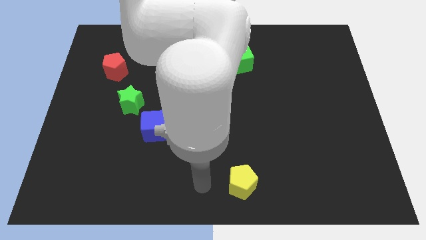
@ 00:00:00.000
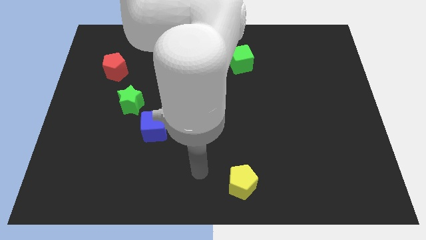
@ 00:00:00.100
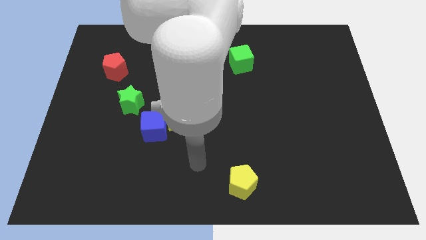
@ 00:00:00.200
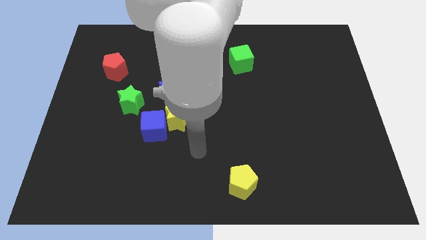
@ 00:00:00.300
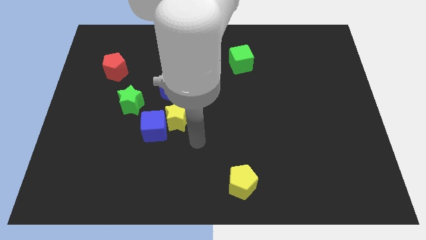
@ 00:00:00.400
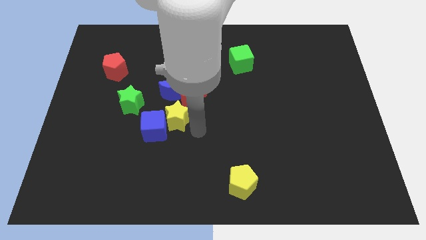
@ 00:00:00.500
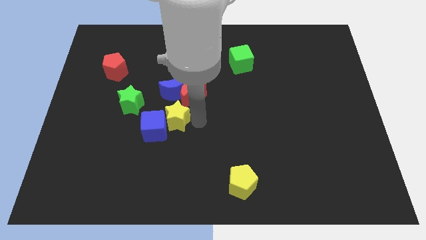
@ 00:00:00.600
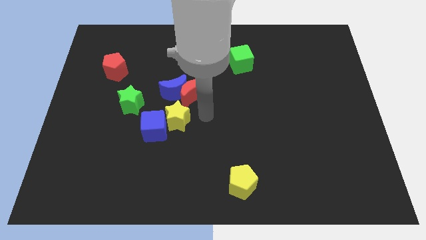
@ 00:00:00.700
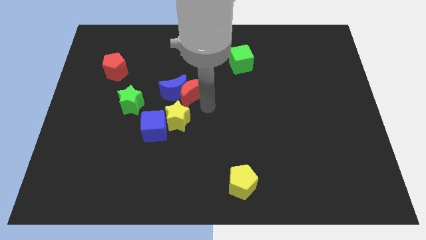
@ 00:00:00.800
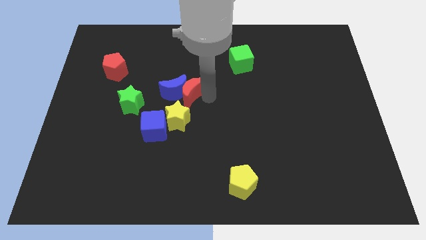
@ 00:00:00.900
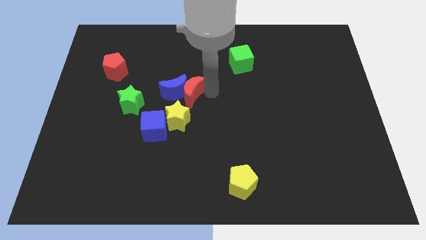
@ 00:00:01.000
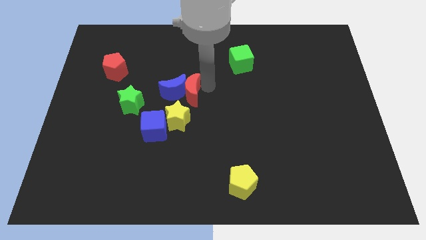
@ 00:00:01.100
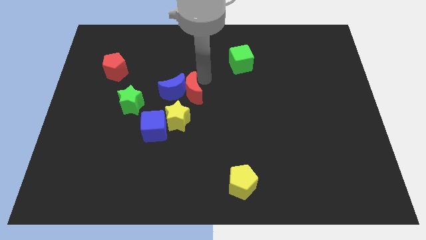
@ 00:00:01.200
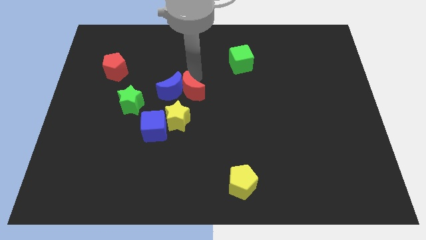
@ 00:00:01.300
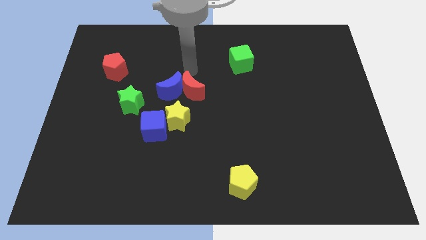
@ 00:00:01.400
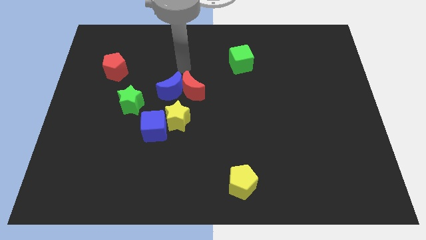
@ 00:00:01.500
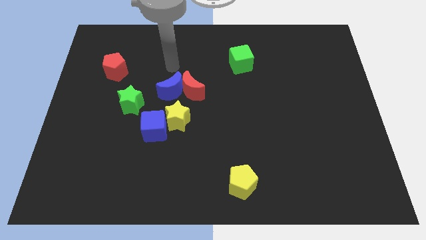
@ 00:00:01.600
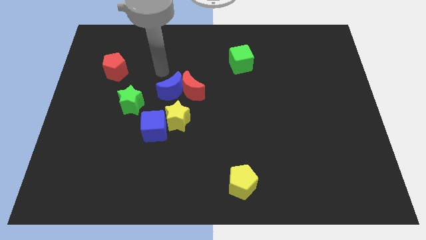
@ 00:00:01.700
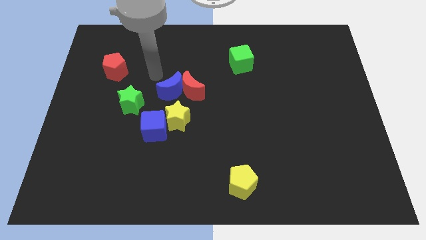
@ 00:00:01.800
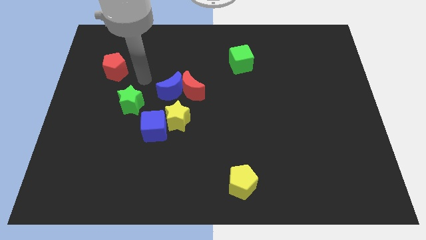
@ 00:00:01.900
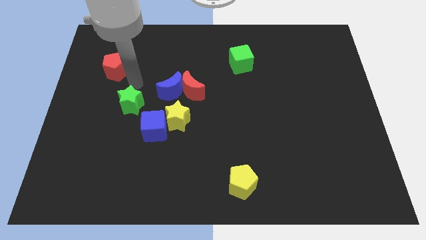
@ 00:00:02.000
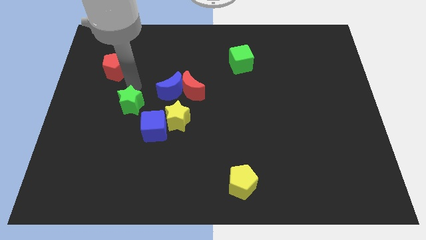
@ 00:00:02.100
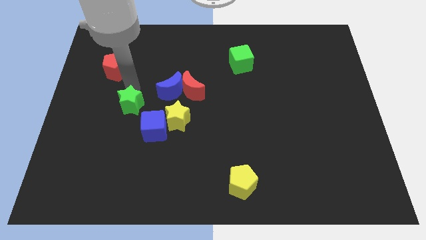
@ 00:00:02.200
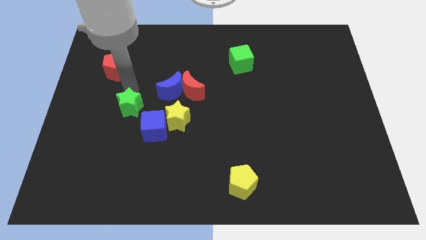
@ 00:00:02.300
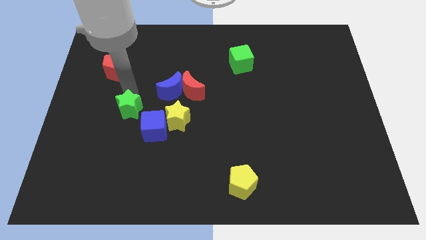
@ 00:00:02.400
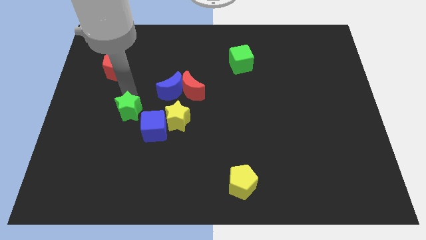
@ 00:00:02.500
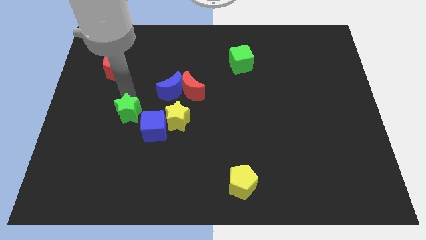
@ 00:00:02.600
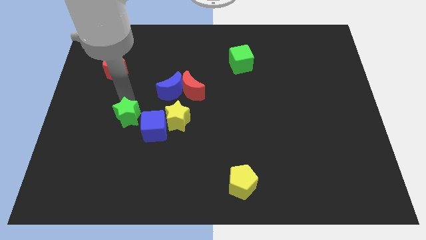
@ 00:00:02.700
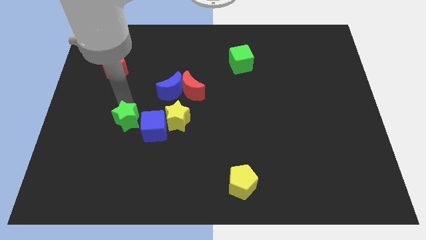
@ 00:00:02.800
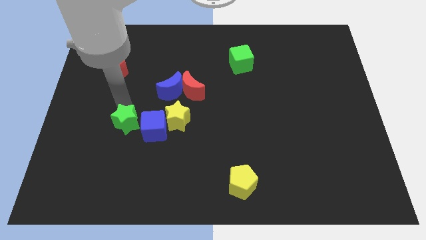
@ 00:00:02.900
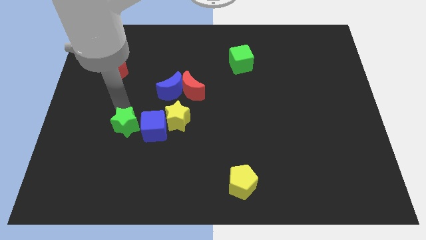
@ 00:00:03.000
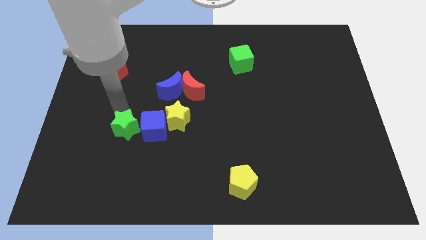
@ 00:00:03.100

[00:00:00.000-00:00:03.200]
slightly move the green star downwards

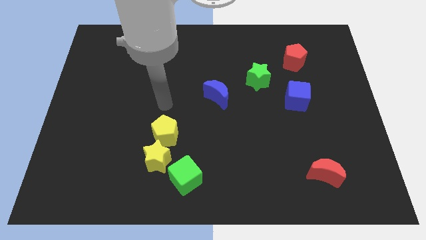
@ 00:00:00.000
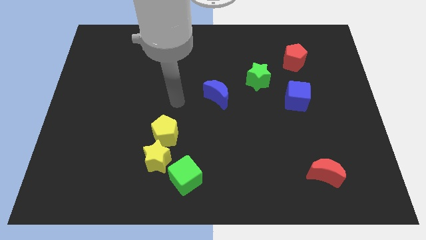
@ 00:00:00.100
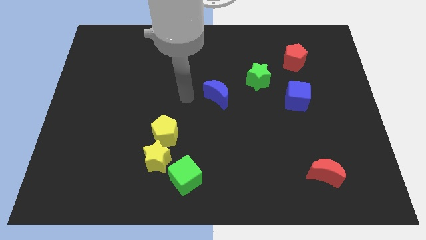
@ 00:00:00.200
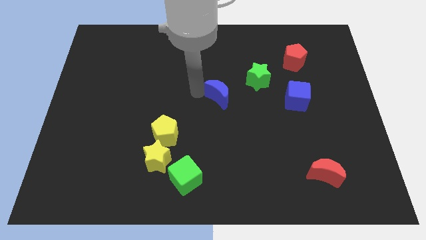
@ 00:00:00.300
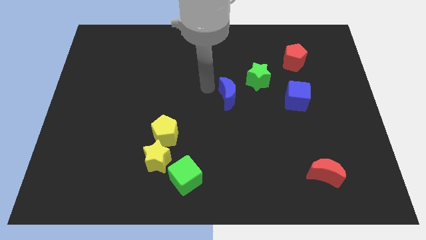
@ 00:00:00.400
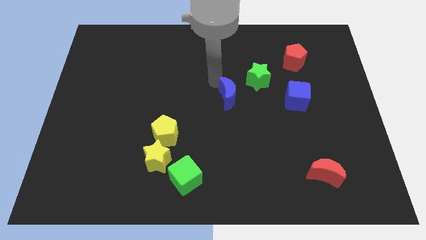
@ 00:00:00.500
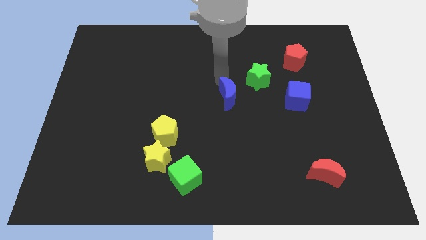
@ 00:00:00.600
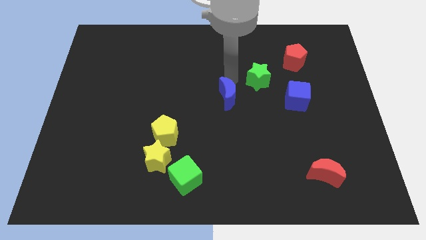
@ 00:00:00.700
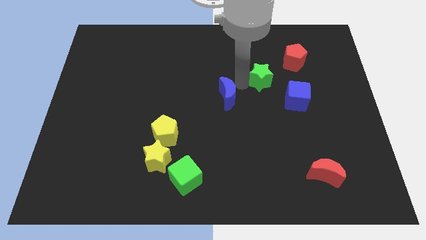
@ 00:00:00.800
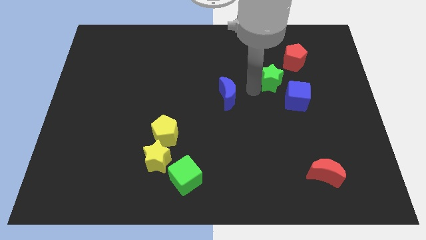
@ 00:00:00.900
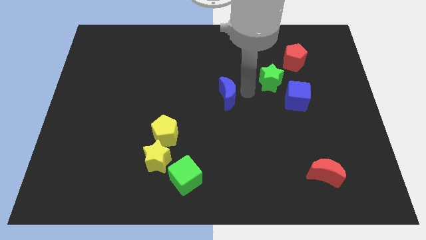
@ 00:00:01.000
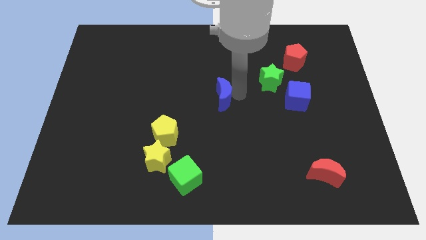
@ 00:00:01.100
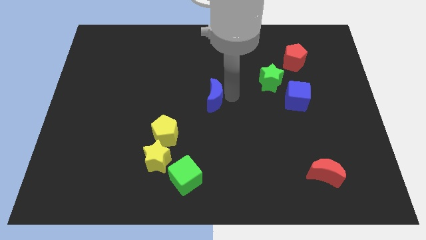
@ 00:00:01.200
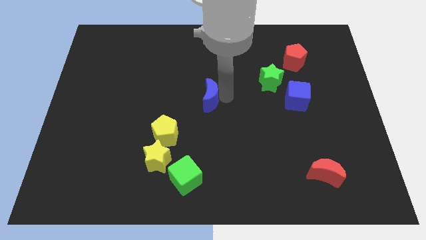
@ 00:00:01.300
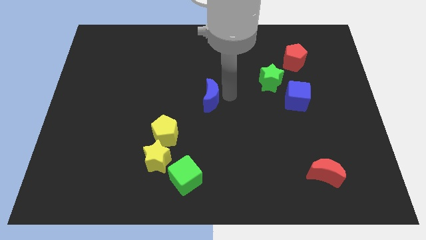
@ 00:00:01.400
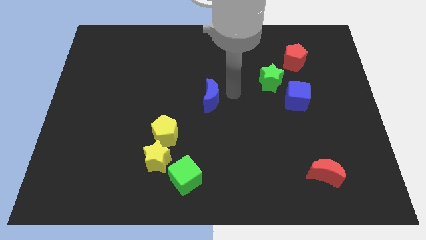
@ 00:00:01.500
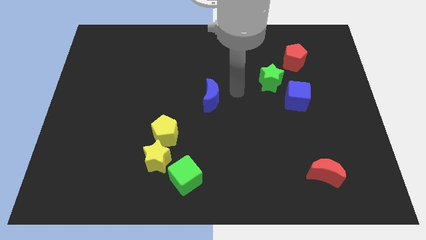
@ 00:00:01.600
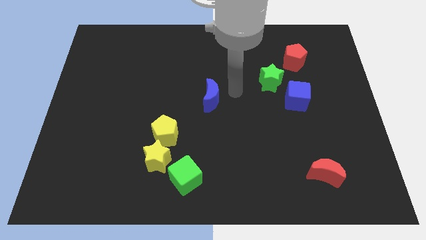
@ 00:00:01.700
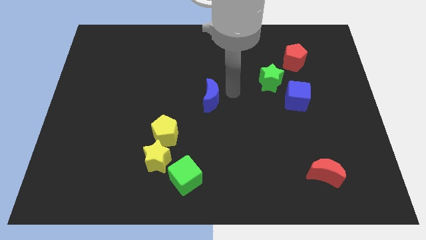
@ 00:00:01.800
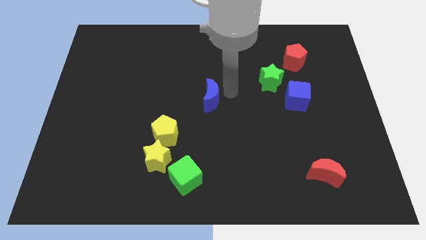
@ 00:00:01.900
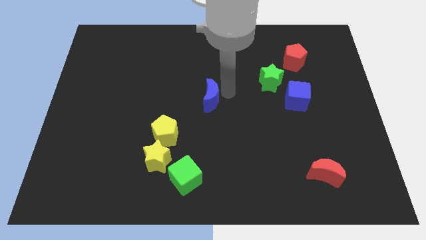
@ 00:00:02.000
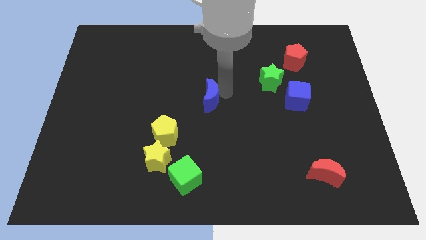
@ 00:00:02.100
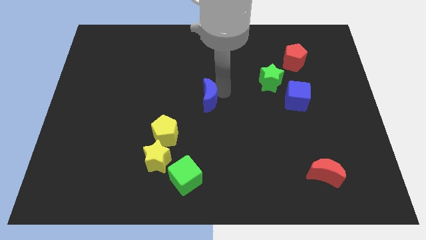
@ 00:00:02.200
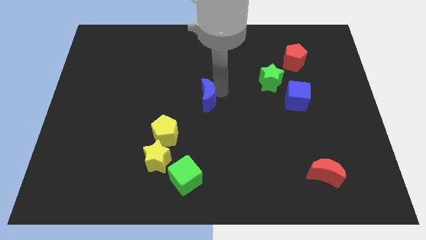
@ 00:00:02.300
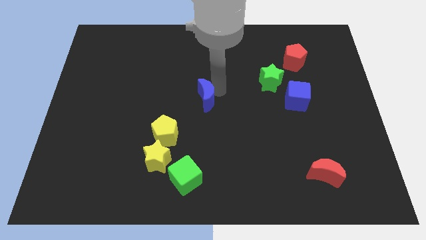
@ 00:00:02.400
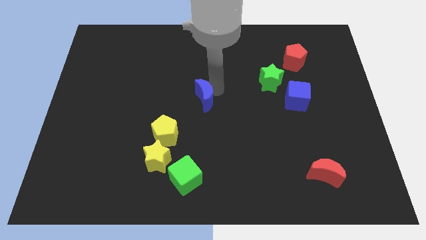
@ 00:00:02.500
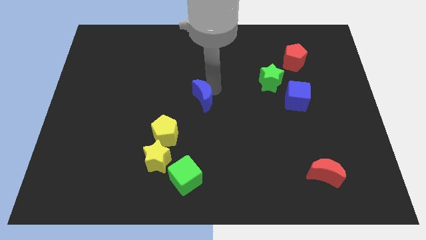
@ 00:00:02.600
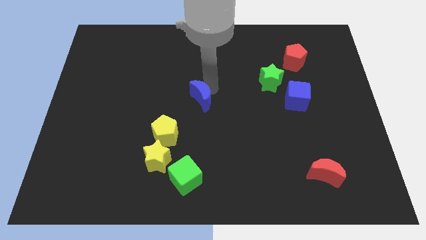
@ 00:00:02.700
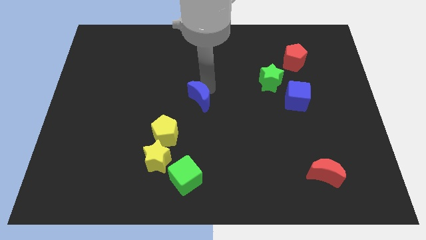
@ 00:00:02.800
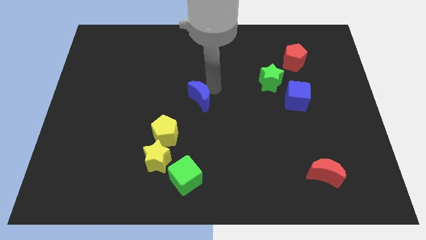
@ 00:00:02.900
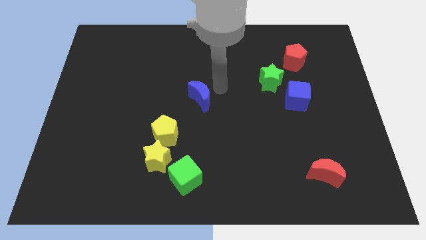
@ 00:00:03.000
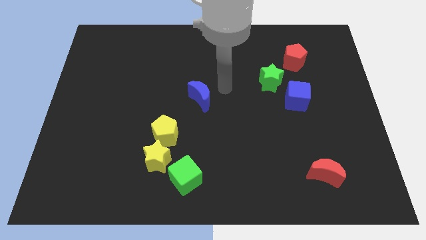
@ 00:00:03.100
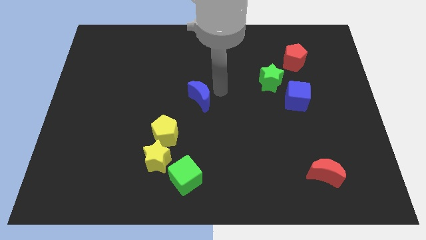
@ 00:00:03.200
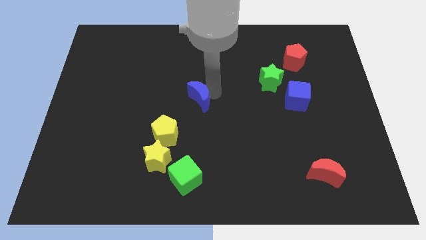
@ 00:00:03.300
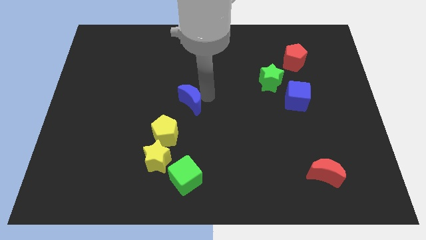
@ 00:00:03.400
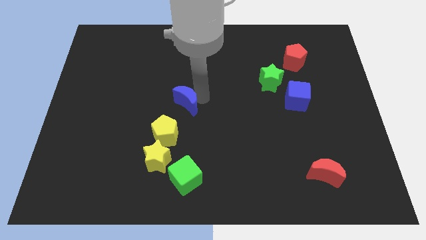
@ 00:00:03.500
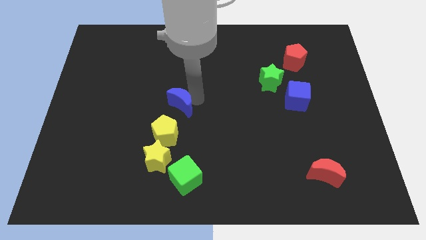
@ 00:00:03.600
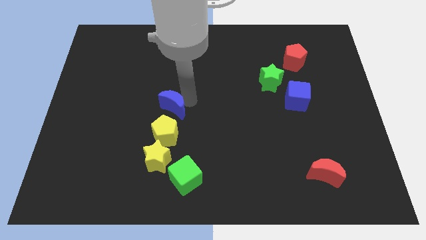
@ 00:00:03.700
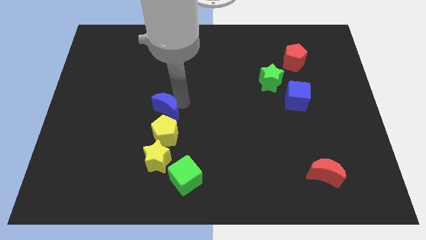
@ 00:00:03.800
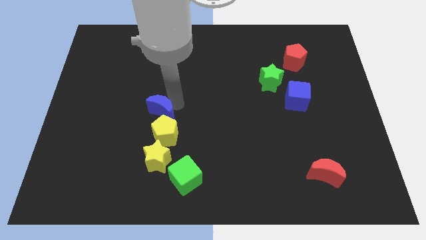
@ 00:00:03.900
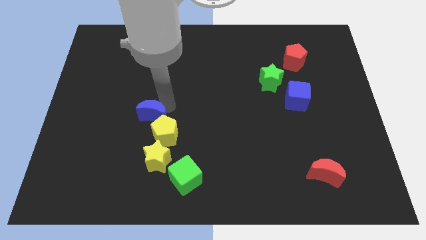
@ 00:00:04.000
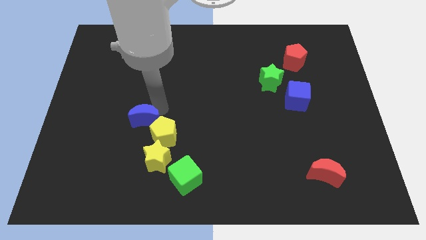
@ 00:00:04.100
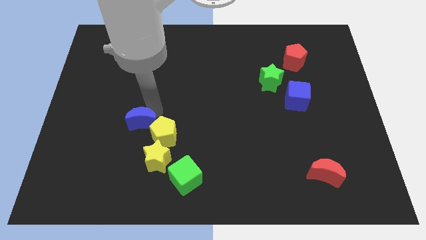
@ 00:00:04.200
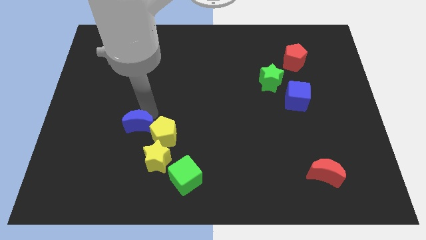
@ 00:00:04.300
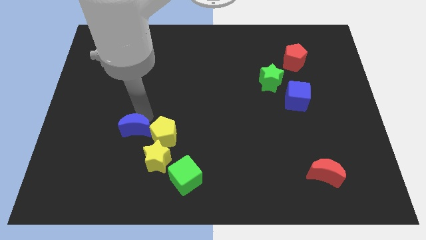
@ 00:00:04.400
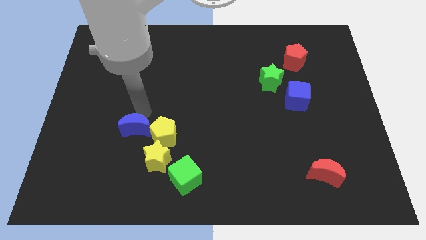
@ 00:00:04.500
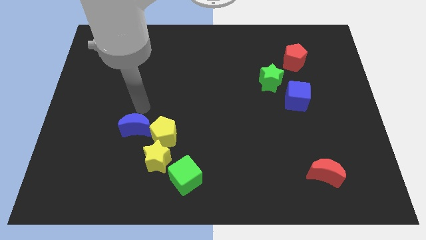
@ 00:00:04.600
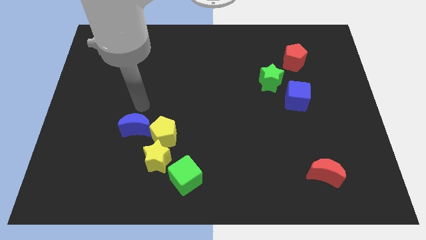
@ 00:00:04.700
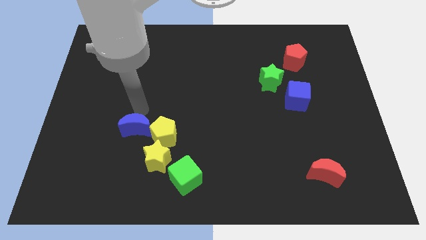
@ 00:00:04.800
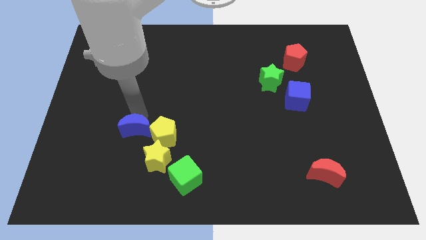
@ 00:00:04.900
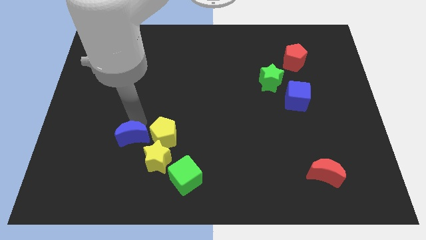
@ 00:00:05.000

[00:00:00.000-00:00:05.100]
move the blue moon downwards and then to the left
